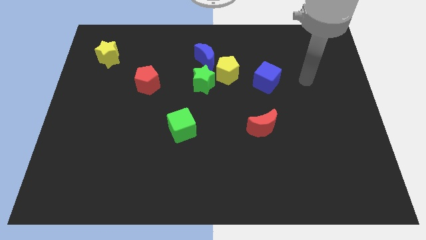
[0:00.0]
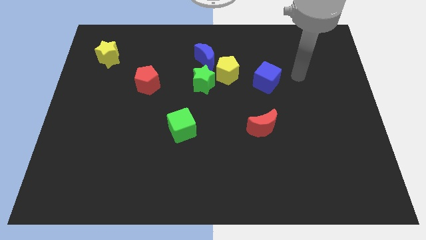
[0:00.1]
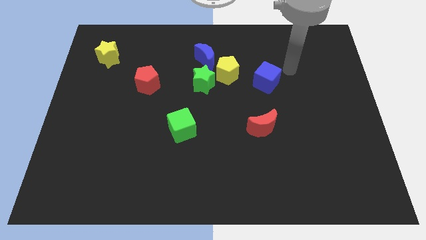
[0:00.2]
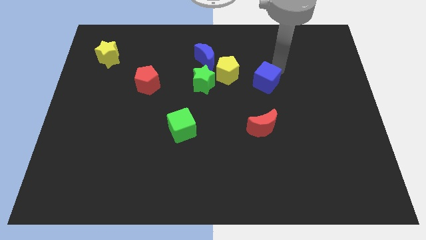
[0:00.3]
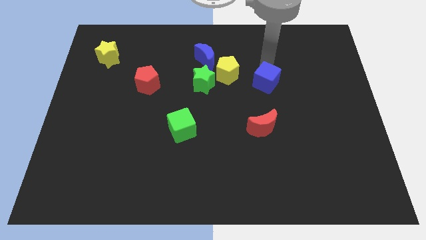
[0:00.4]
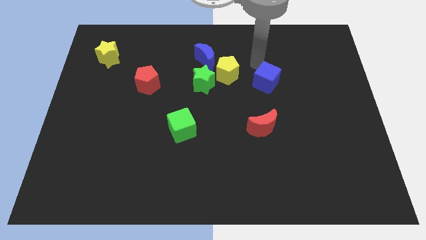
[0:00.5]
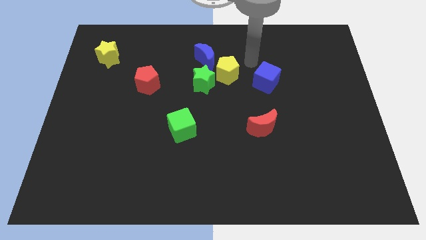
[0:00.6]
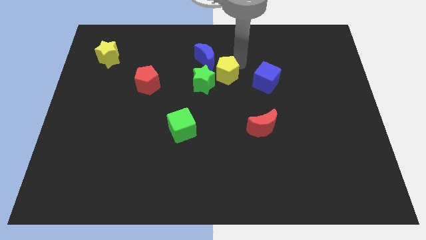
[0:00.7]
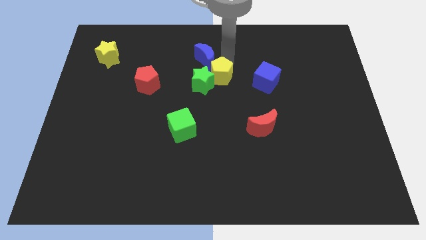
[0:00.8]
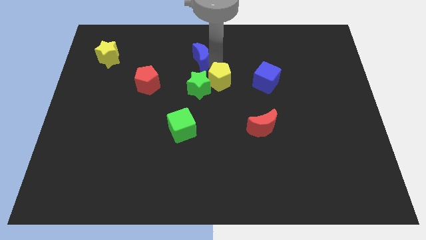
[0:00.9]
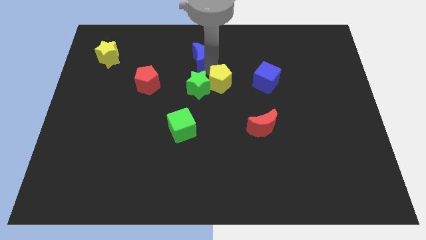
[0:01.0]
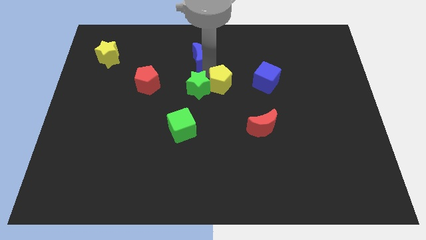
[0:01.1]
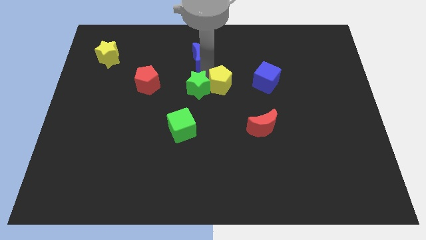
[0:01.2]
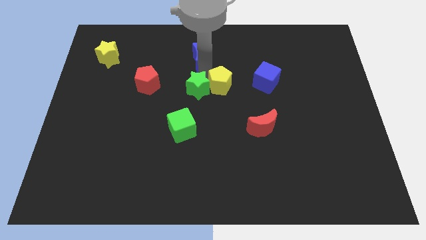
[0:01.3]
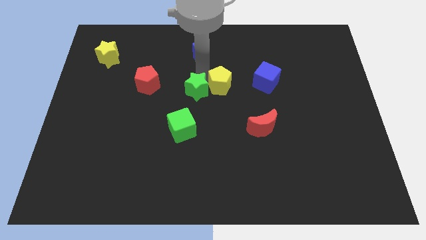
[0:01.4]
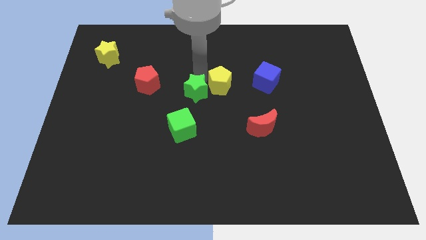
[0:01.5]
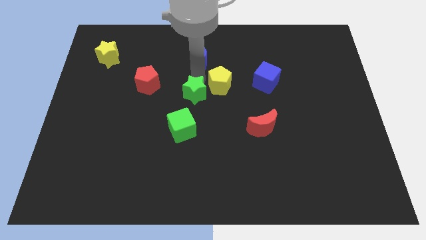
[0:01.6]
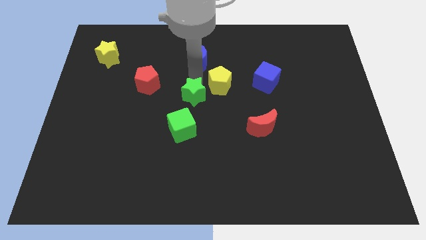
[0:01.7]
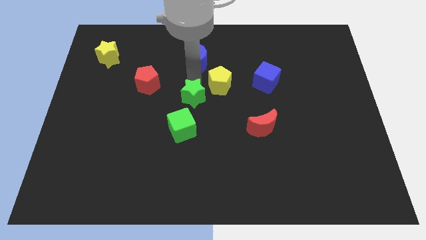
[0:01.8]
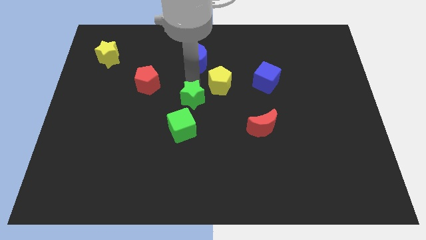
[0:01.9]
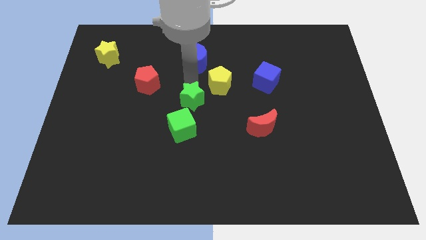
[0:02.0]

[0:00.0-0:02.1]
move the green star away from the yellow pentagon and blue moon

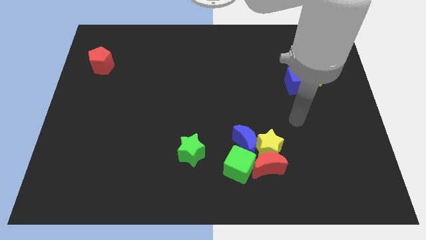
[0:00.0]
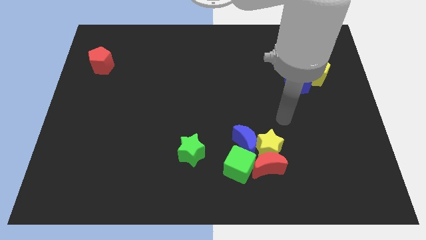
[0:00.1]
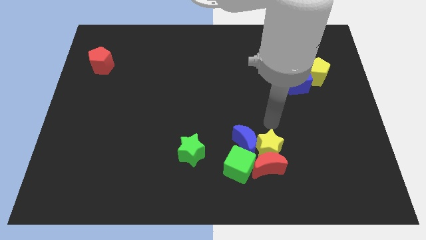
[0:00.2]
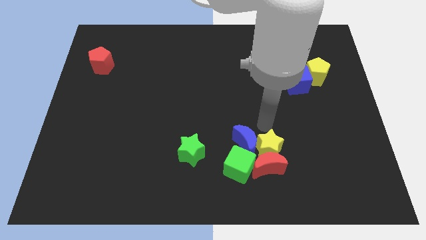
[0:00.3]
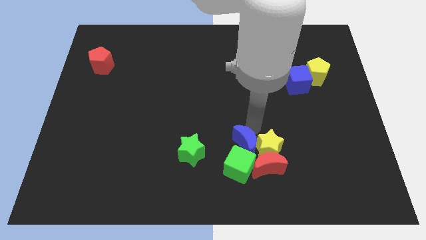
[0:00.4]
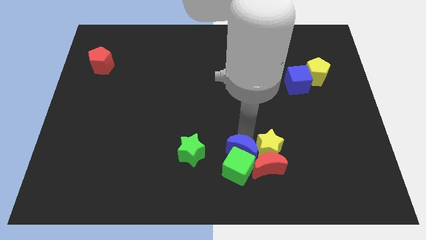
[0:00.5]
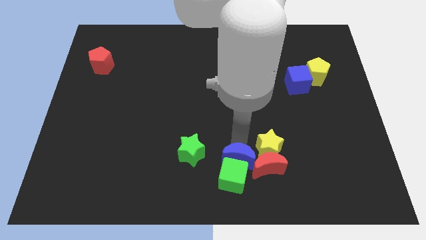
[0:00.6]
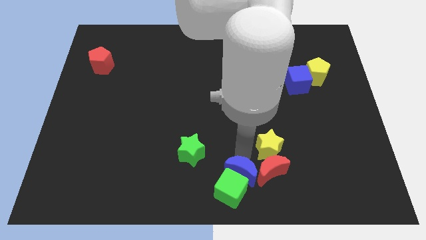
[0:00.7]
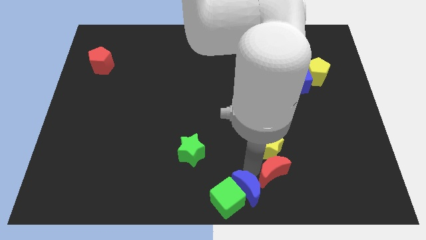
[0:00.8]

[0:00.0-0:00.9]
separate the yellow star from the group

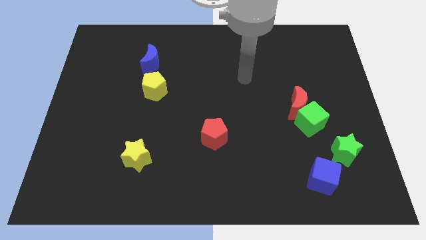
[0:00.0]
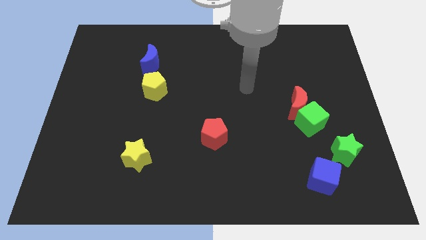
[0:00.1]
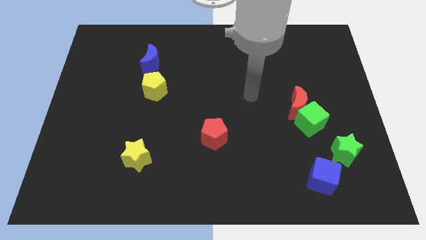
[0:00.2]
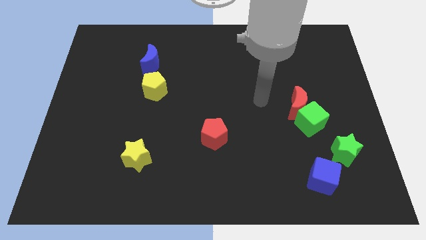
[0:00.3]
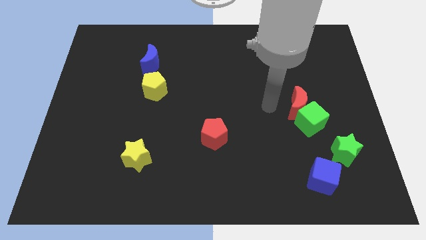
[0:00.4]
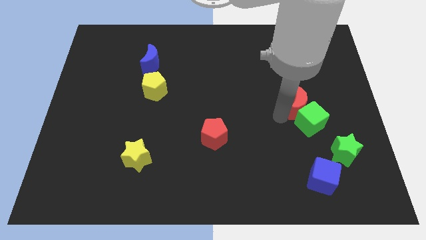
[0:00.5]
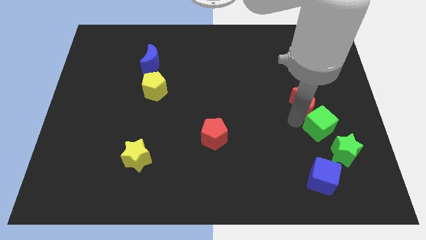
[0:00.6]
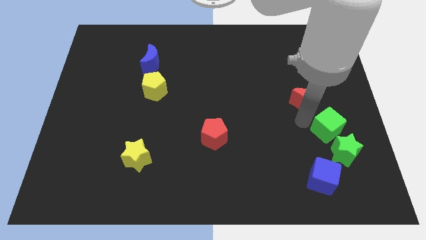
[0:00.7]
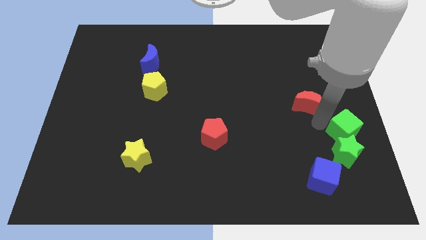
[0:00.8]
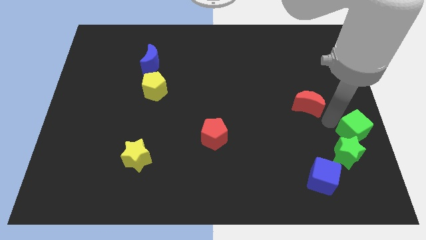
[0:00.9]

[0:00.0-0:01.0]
move the red moon away from the green cube

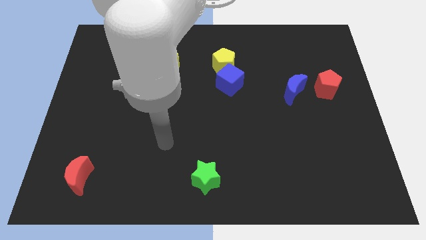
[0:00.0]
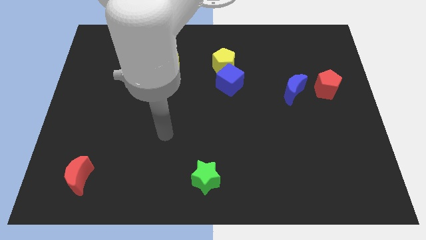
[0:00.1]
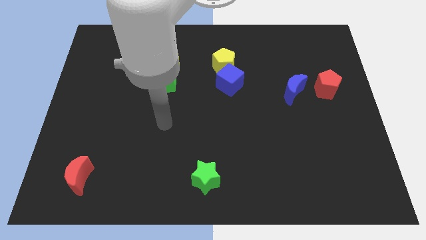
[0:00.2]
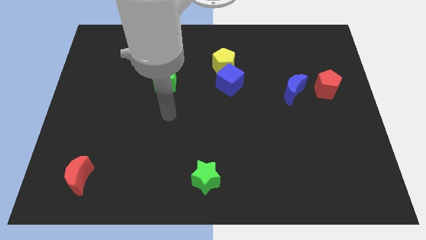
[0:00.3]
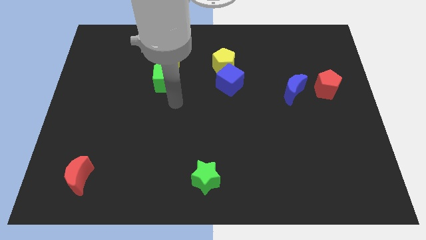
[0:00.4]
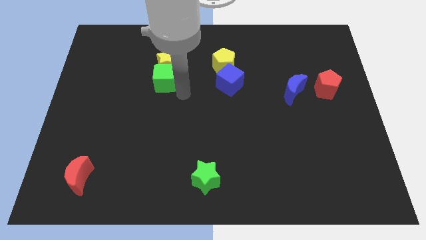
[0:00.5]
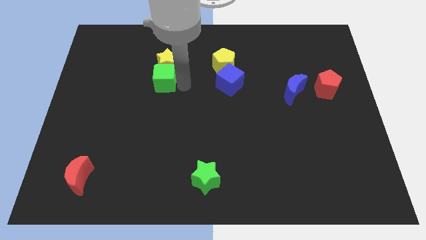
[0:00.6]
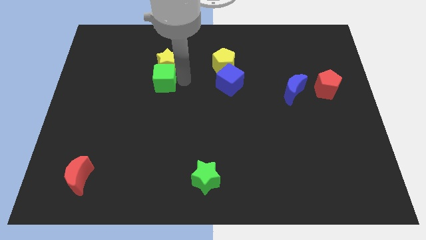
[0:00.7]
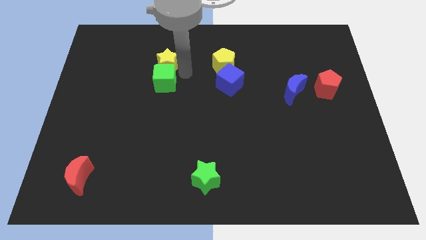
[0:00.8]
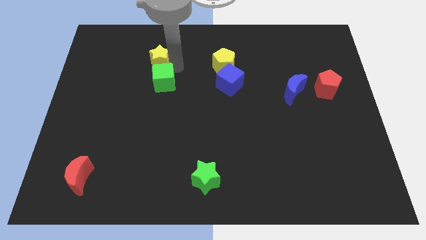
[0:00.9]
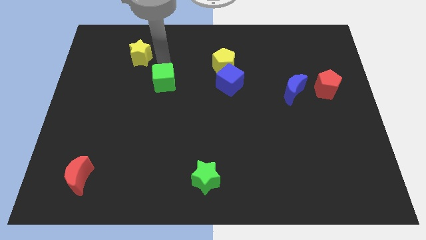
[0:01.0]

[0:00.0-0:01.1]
separate the green cube from the yellow star

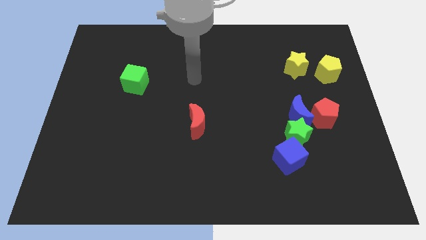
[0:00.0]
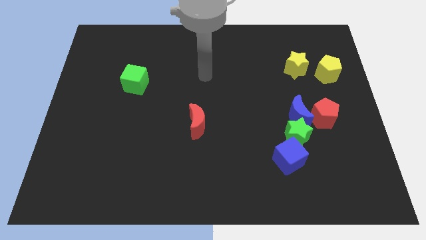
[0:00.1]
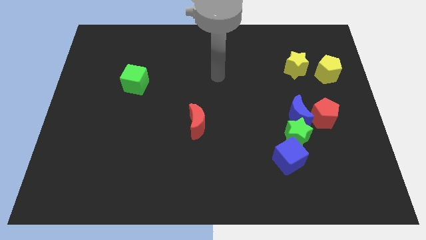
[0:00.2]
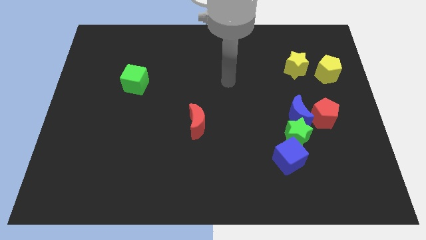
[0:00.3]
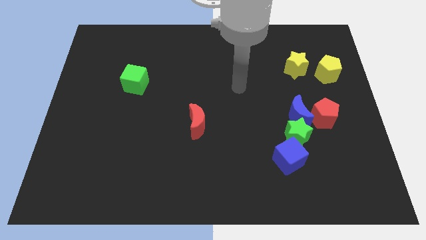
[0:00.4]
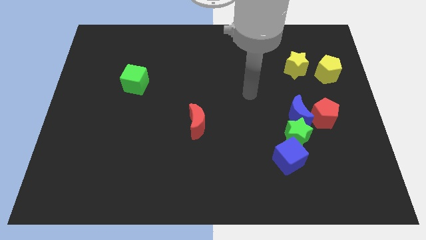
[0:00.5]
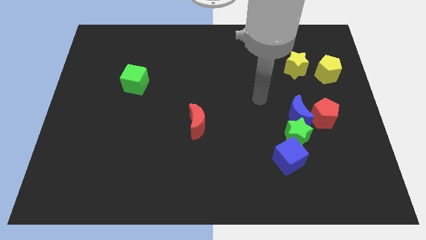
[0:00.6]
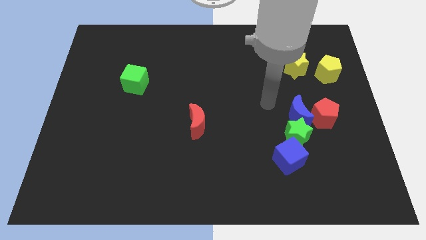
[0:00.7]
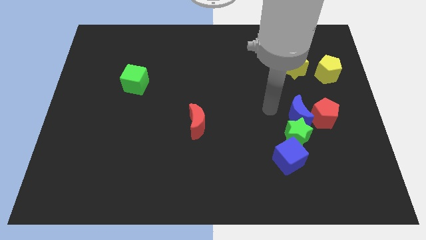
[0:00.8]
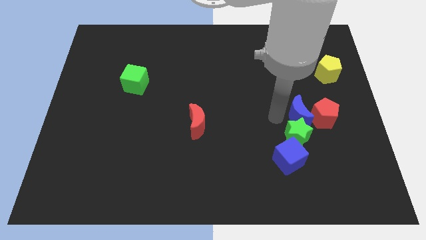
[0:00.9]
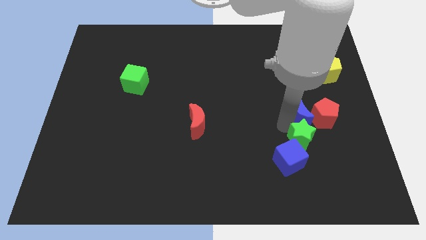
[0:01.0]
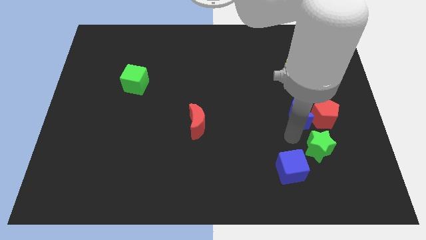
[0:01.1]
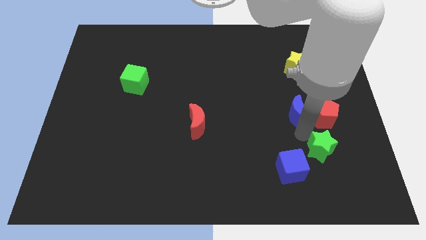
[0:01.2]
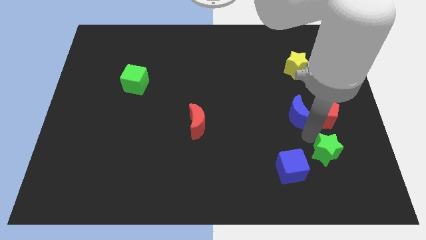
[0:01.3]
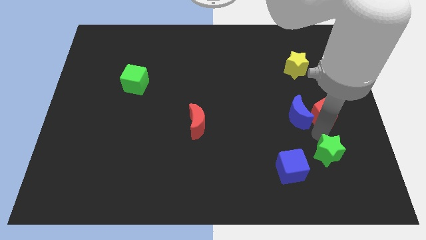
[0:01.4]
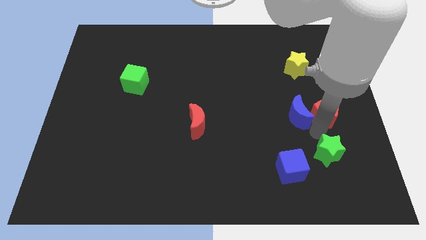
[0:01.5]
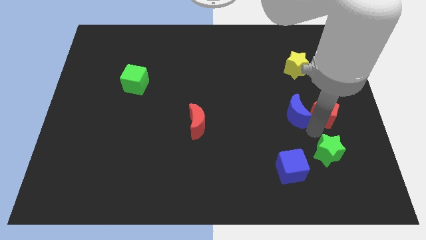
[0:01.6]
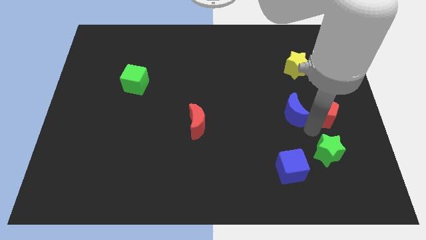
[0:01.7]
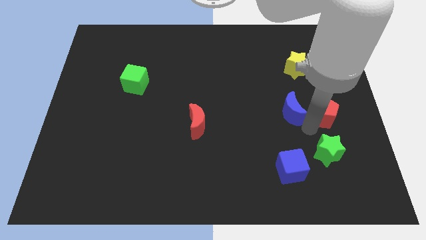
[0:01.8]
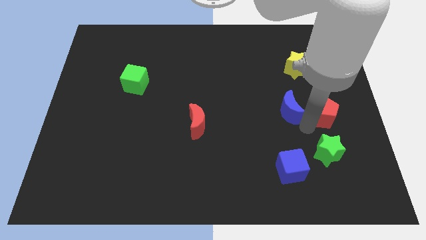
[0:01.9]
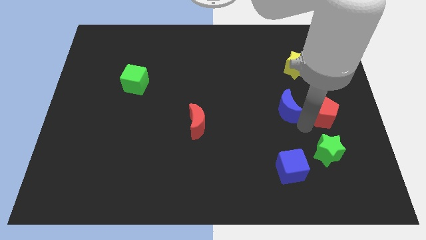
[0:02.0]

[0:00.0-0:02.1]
move the blue moon away from the green star and red pentagon

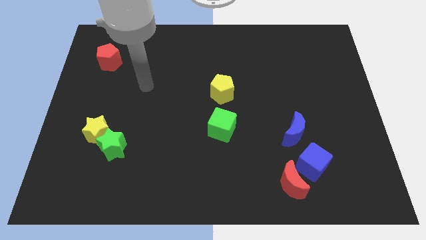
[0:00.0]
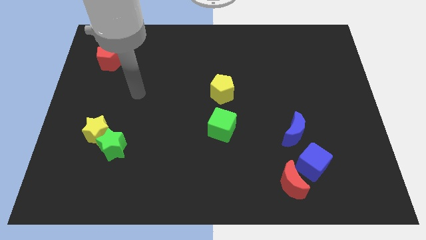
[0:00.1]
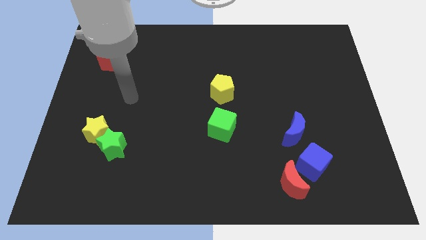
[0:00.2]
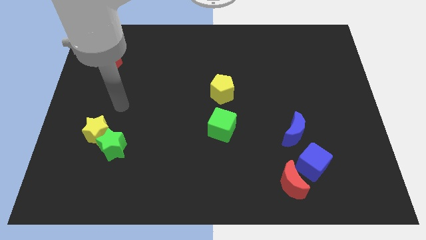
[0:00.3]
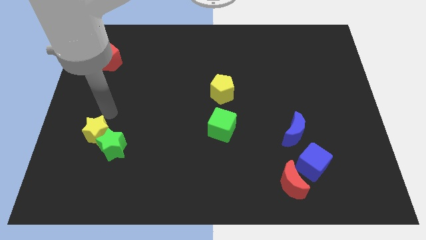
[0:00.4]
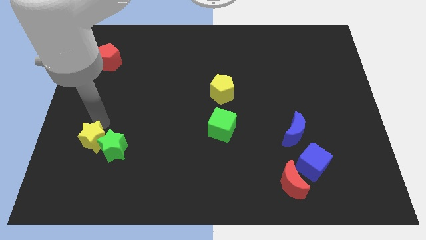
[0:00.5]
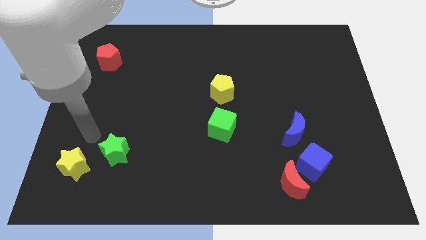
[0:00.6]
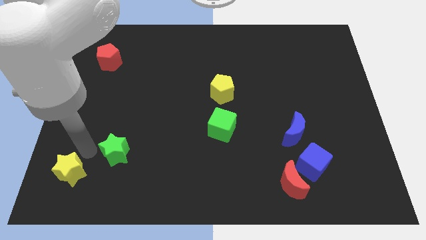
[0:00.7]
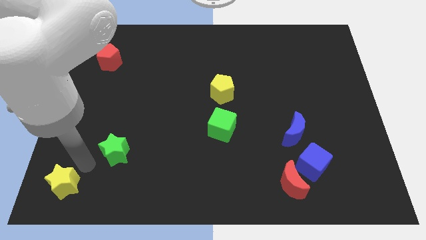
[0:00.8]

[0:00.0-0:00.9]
move the green star away from the yellow star

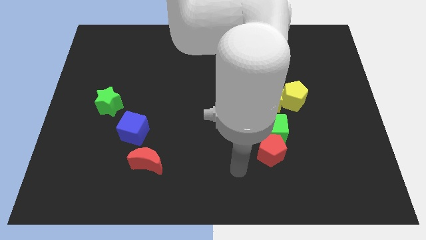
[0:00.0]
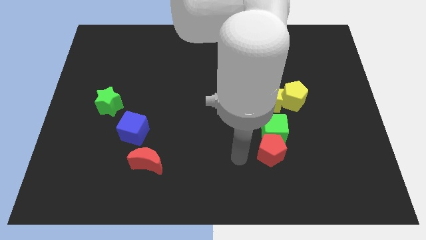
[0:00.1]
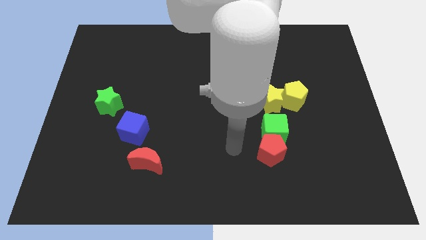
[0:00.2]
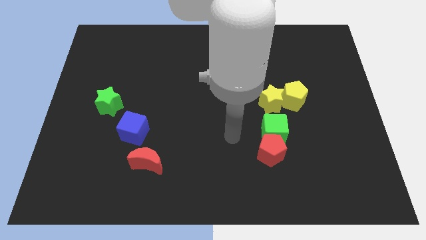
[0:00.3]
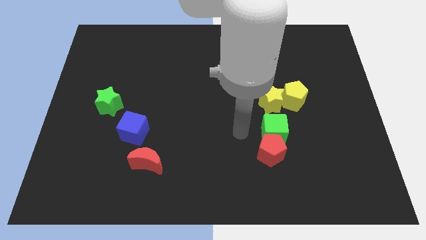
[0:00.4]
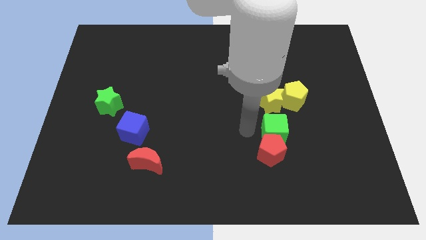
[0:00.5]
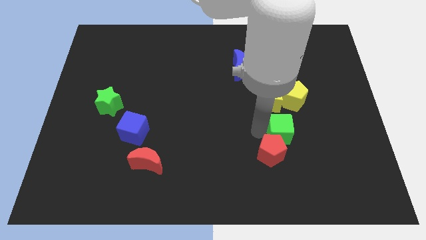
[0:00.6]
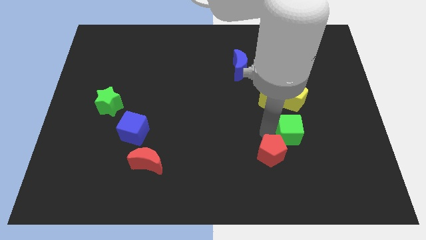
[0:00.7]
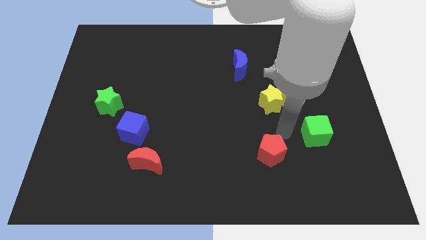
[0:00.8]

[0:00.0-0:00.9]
separate the red pentagon from the green cube

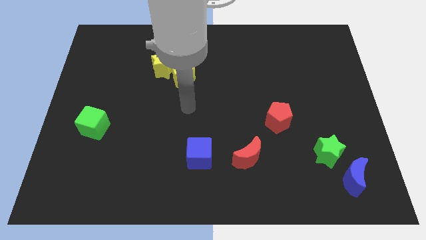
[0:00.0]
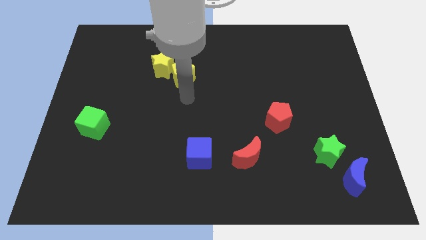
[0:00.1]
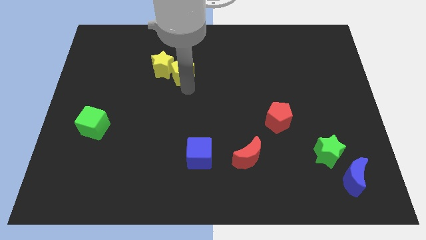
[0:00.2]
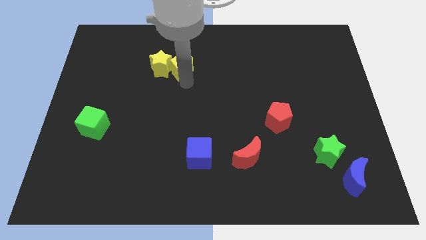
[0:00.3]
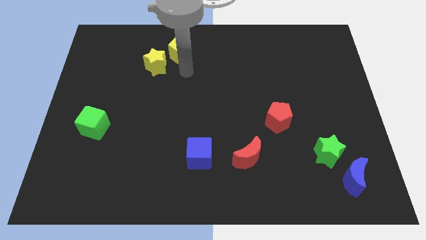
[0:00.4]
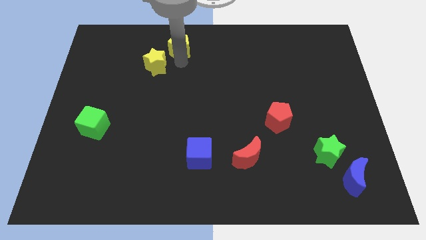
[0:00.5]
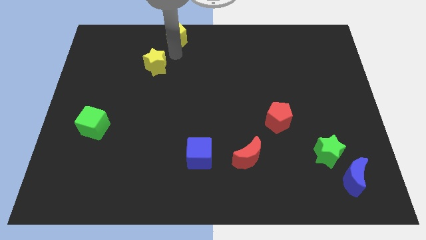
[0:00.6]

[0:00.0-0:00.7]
move the yellow star away from the yellow pentagon
